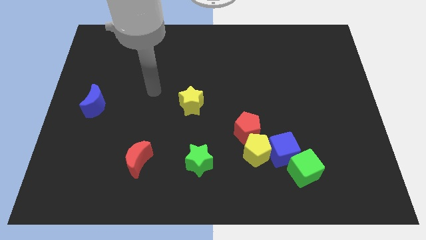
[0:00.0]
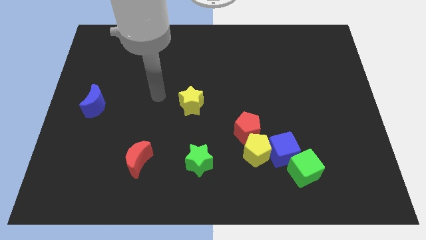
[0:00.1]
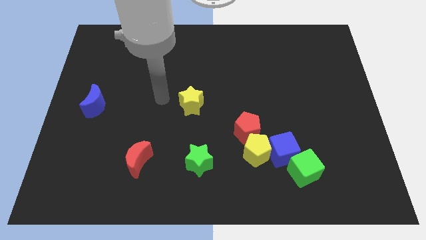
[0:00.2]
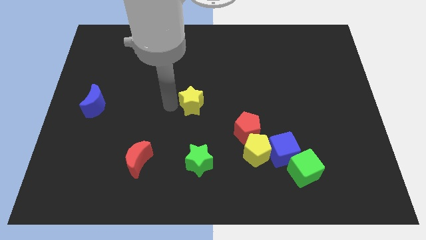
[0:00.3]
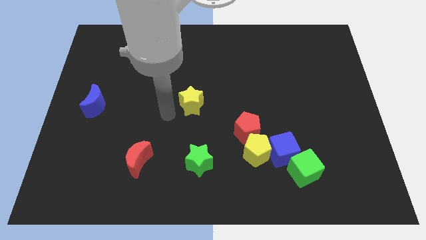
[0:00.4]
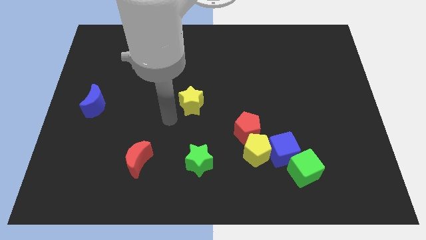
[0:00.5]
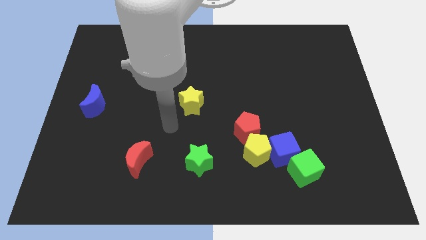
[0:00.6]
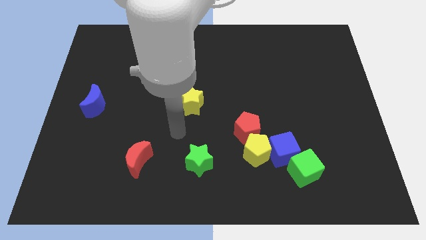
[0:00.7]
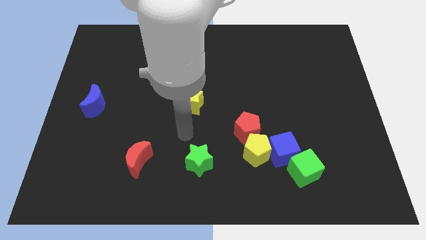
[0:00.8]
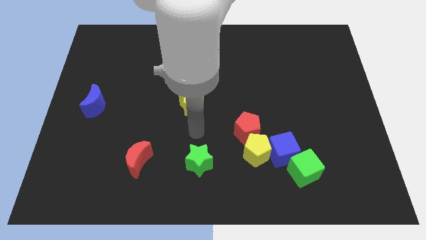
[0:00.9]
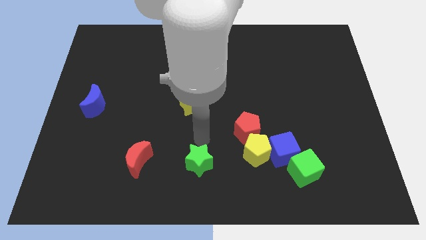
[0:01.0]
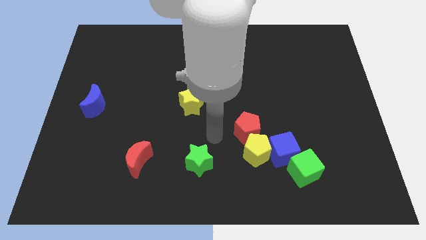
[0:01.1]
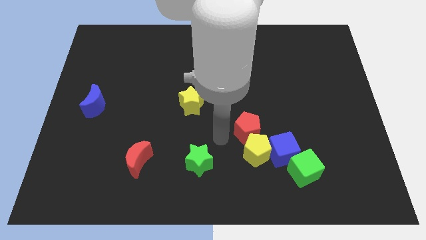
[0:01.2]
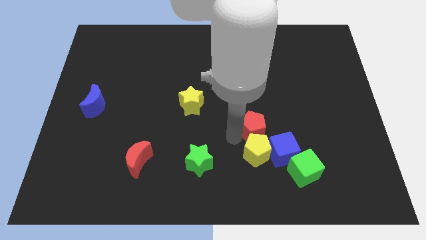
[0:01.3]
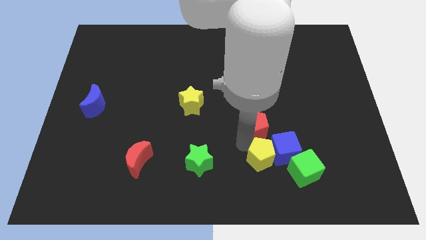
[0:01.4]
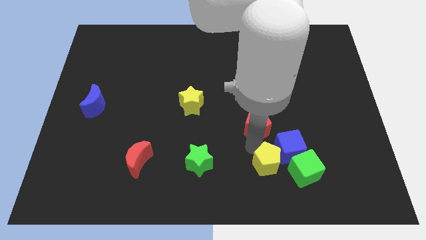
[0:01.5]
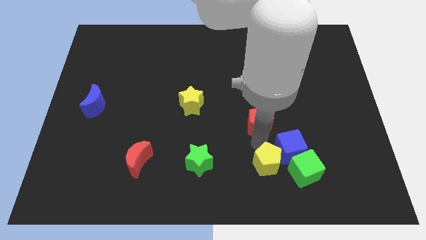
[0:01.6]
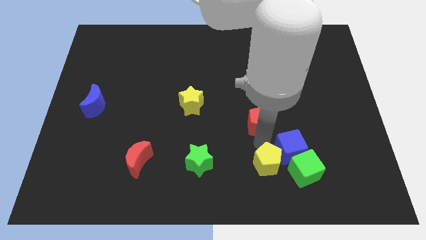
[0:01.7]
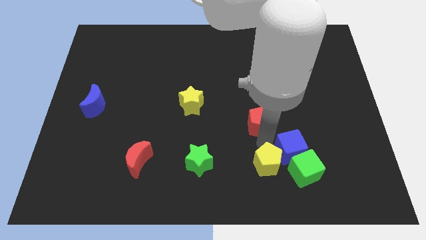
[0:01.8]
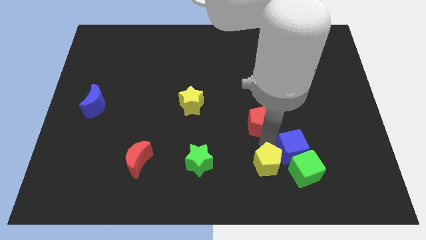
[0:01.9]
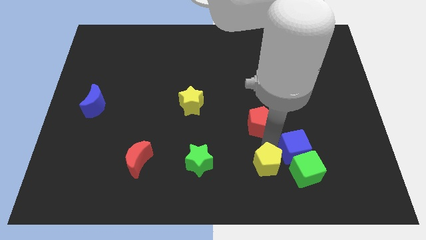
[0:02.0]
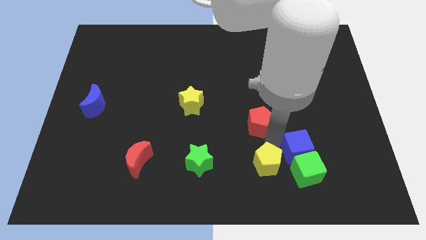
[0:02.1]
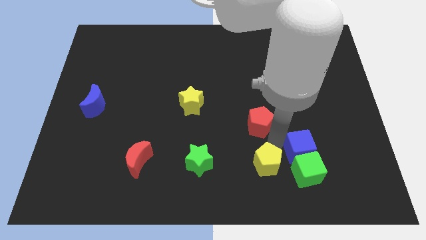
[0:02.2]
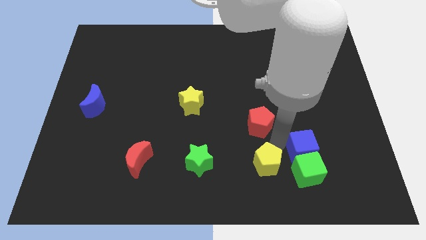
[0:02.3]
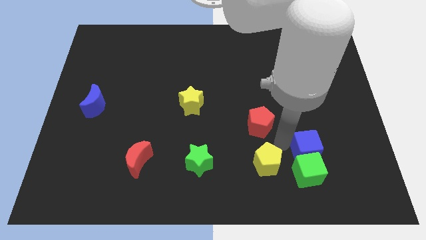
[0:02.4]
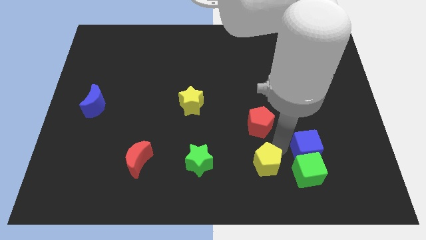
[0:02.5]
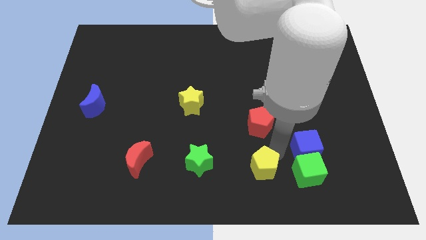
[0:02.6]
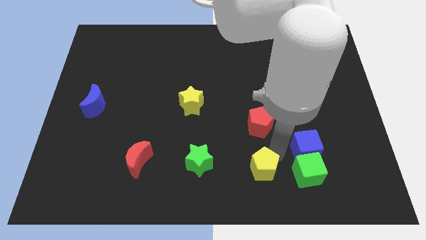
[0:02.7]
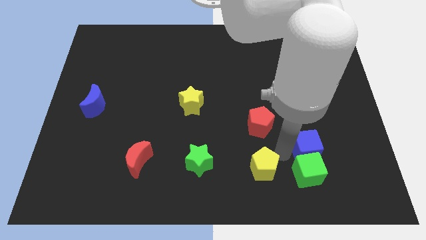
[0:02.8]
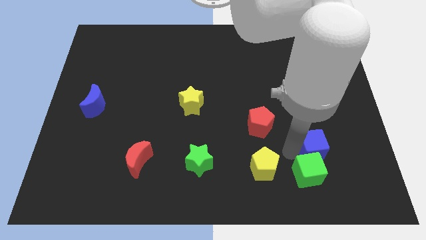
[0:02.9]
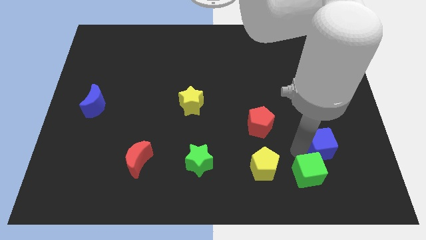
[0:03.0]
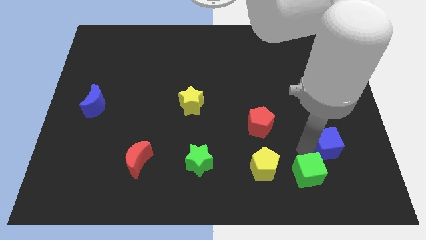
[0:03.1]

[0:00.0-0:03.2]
separate the blue cube from the group

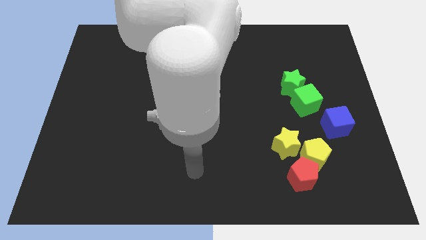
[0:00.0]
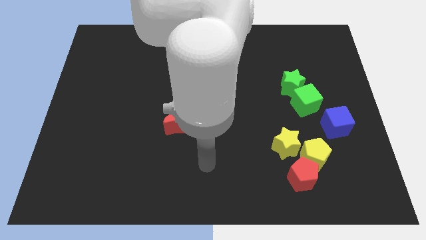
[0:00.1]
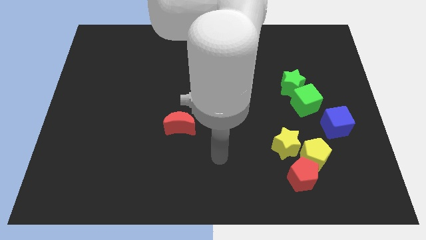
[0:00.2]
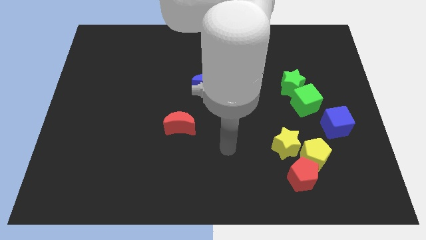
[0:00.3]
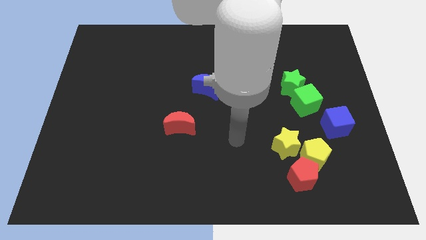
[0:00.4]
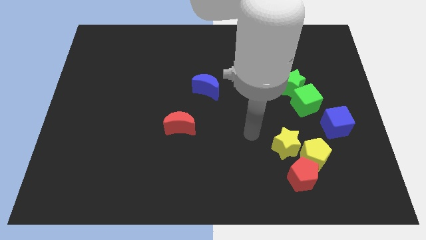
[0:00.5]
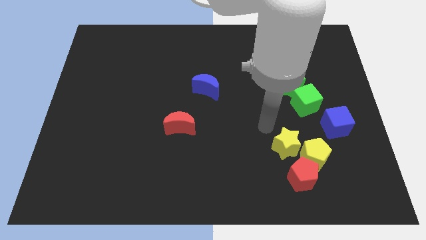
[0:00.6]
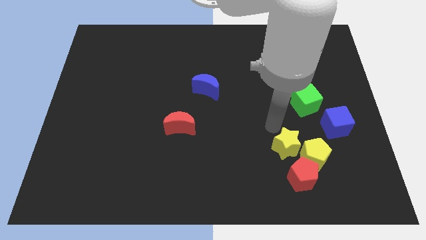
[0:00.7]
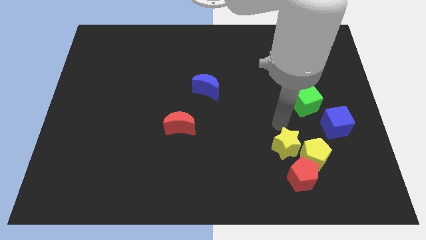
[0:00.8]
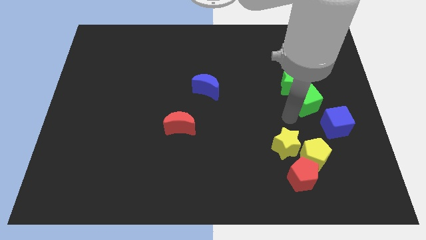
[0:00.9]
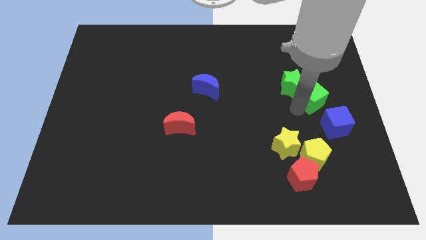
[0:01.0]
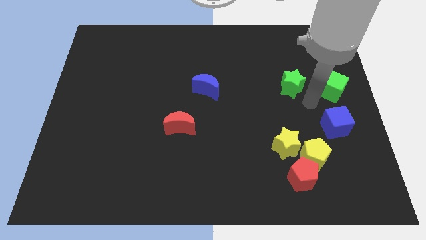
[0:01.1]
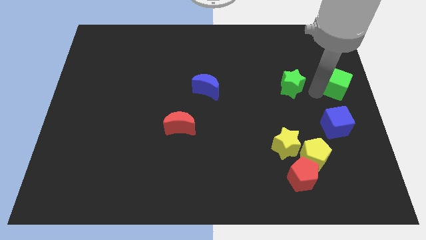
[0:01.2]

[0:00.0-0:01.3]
pull the green star apart from the green cube

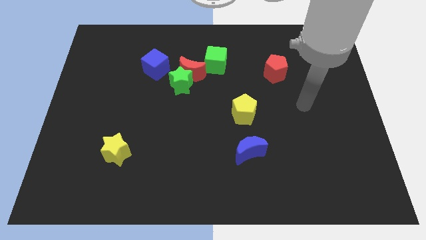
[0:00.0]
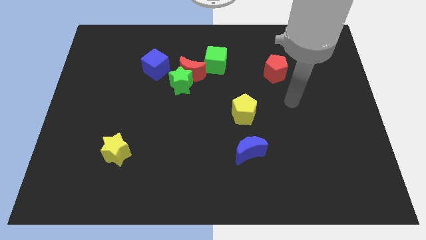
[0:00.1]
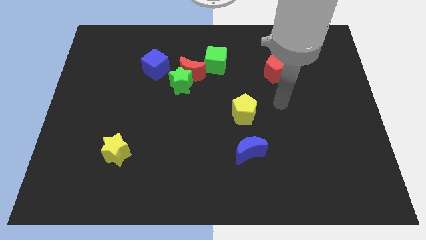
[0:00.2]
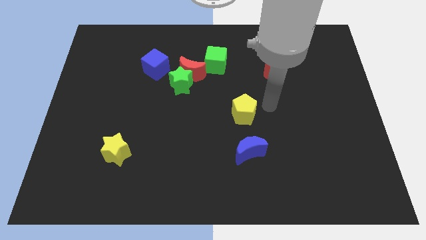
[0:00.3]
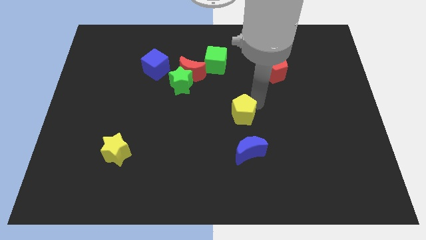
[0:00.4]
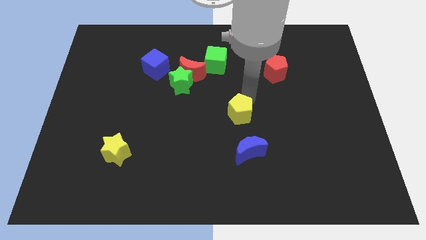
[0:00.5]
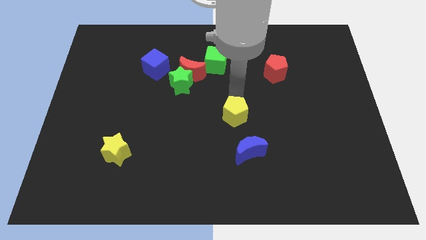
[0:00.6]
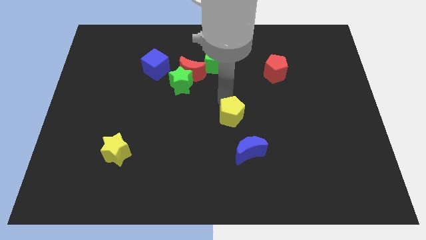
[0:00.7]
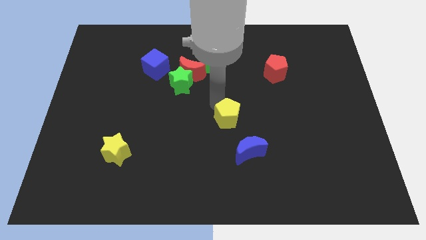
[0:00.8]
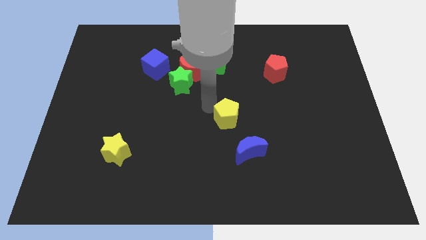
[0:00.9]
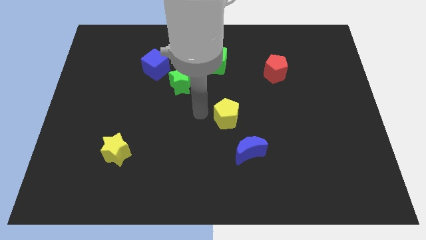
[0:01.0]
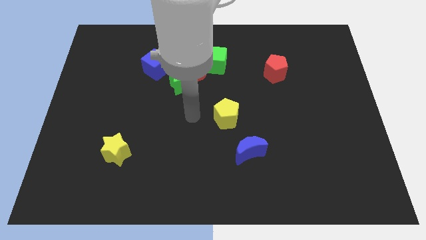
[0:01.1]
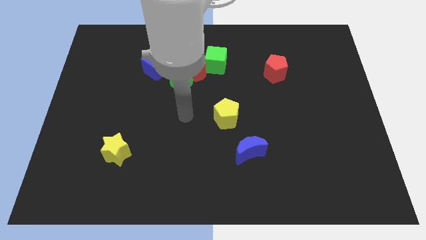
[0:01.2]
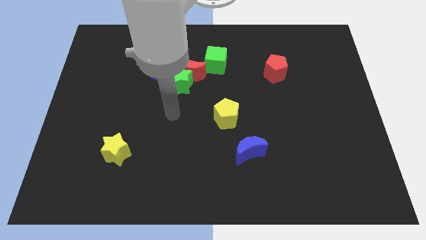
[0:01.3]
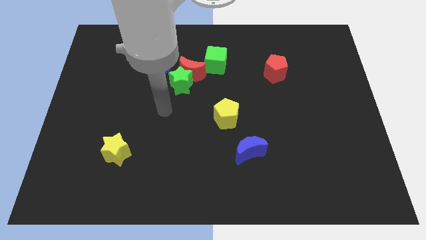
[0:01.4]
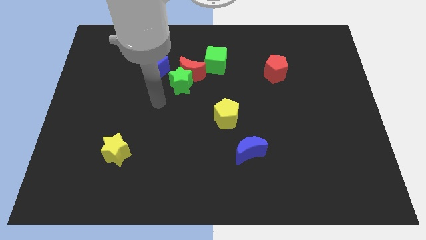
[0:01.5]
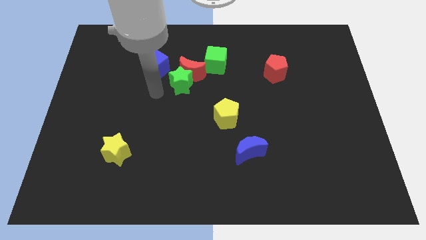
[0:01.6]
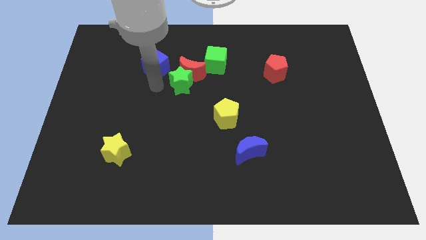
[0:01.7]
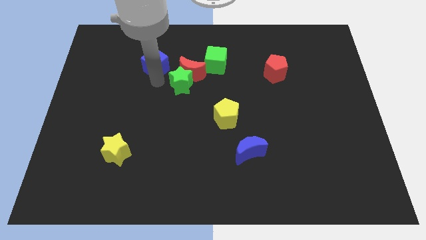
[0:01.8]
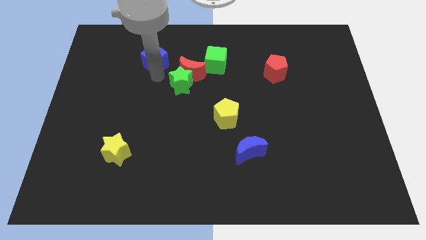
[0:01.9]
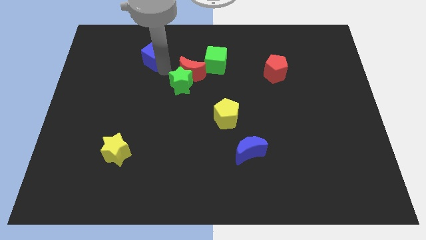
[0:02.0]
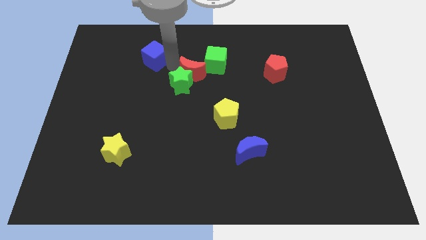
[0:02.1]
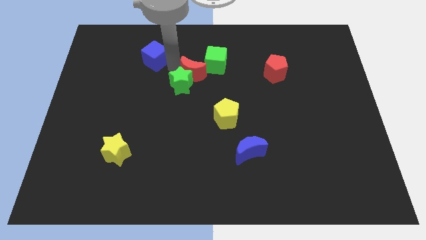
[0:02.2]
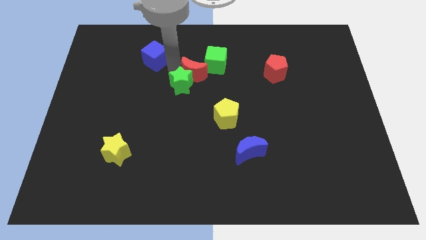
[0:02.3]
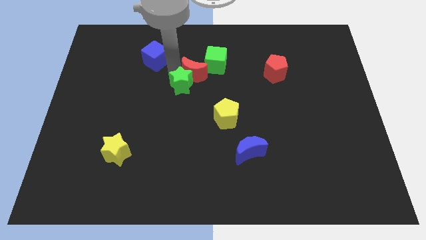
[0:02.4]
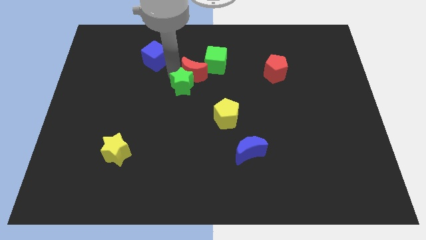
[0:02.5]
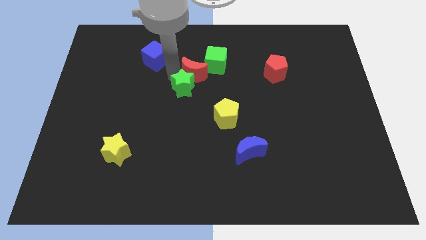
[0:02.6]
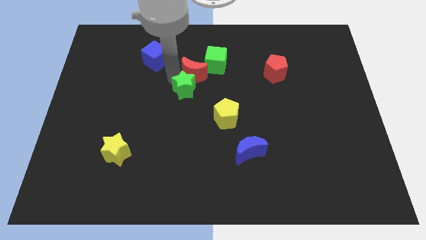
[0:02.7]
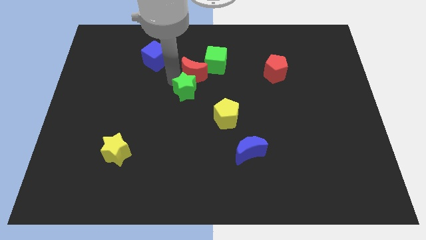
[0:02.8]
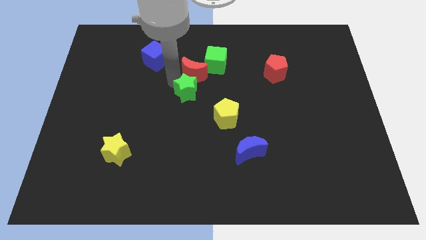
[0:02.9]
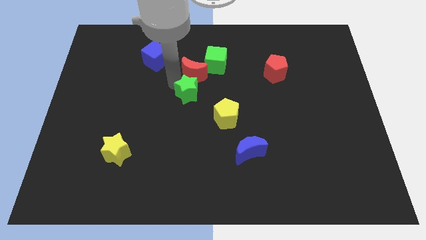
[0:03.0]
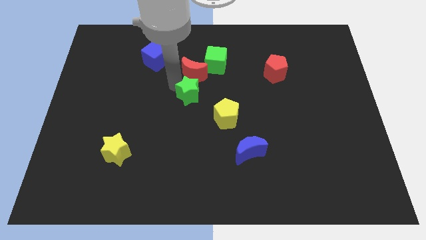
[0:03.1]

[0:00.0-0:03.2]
separate the green star from the red moon and blue cube

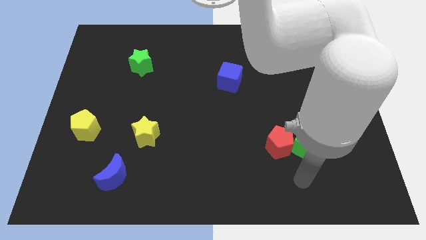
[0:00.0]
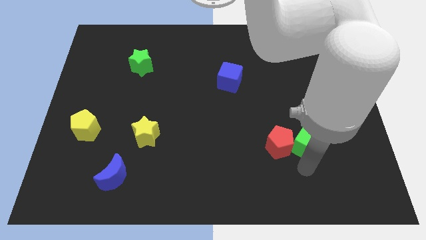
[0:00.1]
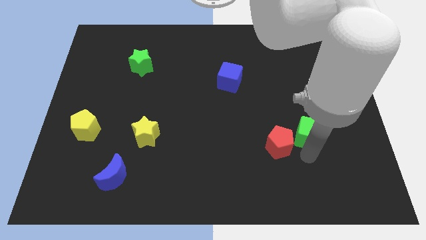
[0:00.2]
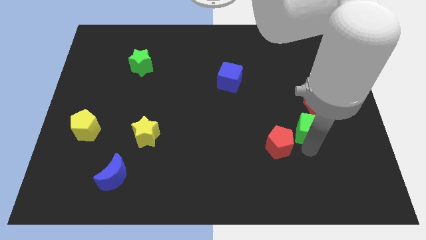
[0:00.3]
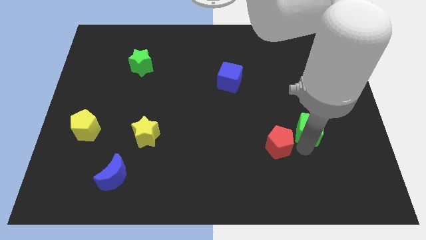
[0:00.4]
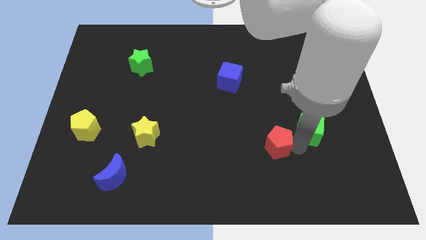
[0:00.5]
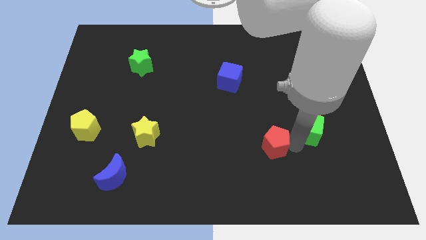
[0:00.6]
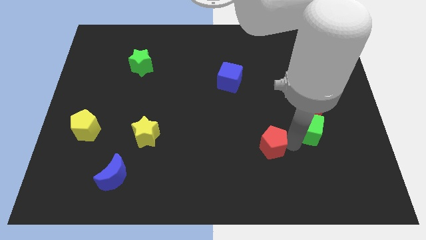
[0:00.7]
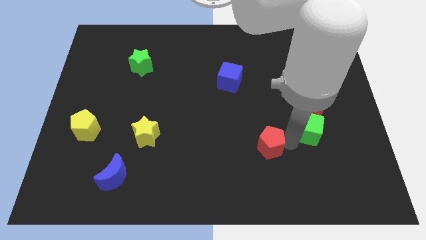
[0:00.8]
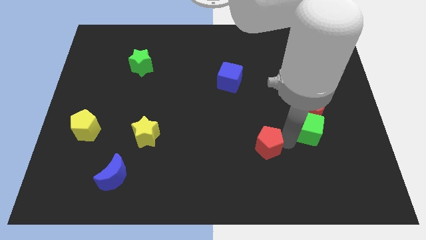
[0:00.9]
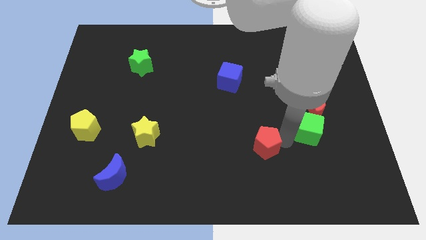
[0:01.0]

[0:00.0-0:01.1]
pull the red pentagon apart from the green cube

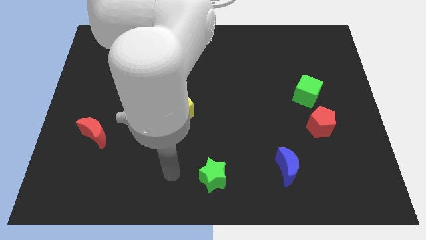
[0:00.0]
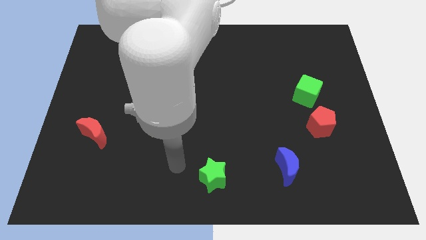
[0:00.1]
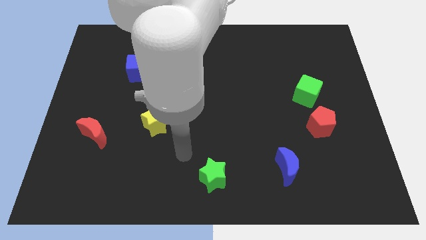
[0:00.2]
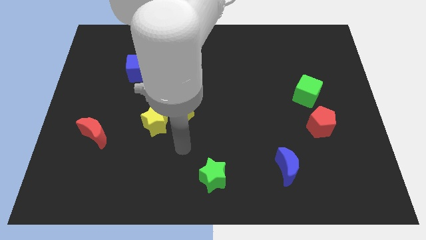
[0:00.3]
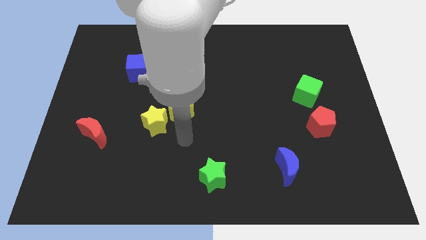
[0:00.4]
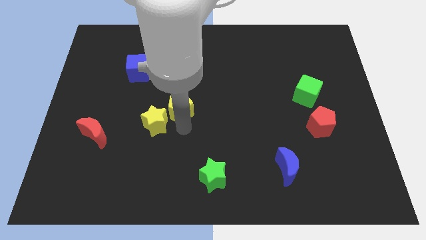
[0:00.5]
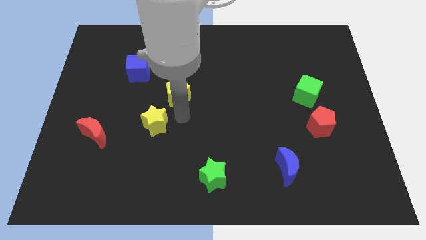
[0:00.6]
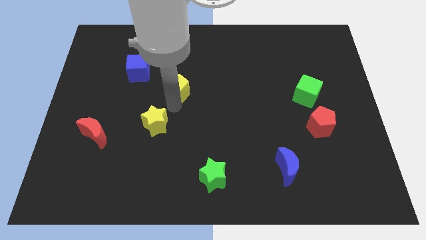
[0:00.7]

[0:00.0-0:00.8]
pull the yellow star apart from the yellow pentagon
